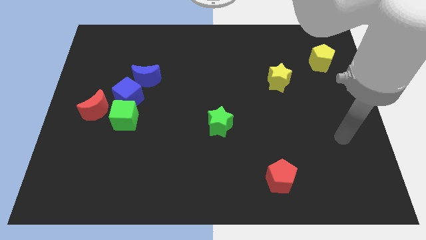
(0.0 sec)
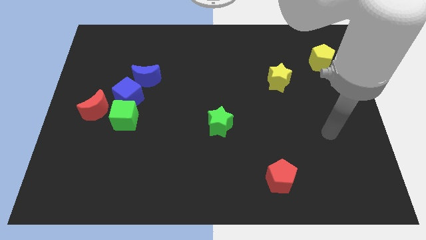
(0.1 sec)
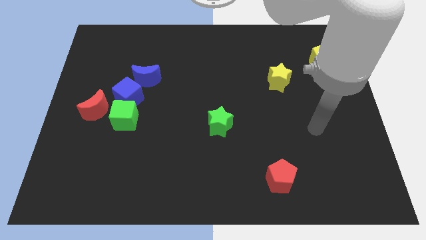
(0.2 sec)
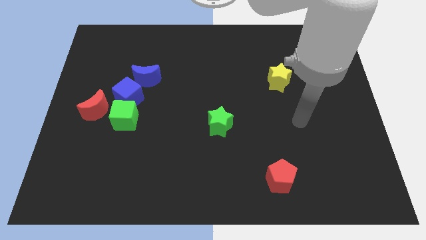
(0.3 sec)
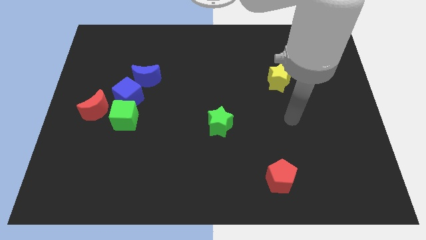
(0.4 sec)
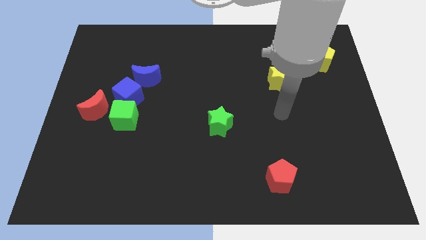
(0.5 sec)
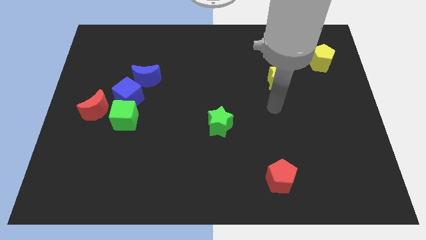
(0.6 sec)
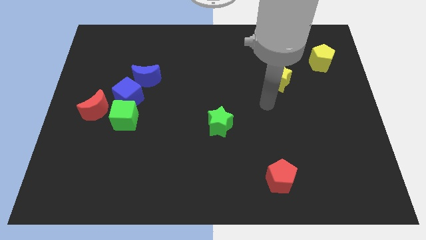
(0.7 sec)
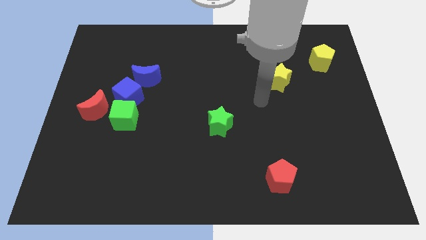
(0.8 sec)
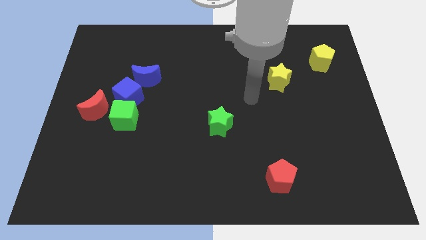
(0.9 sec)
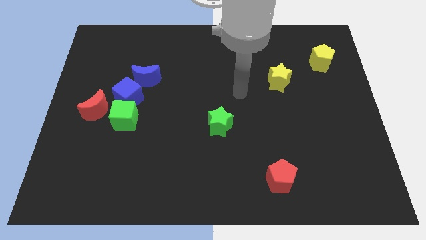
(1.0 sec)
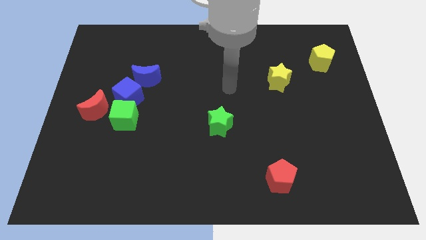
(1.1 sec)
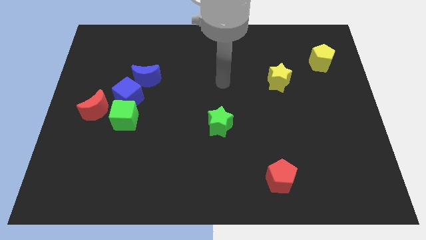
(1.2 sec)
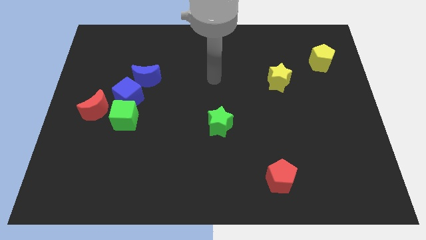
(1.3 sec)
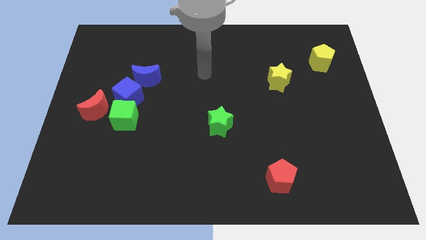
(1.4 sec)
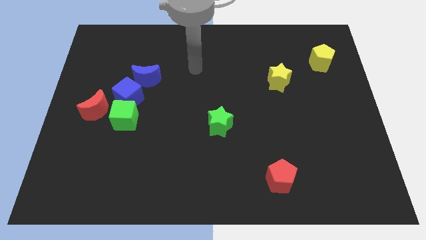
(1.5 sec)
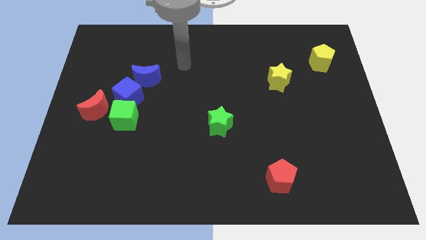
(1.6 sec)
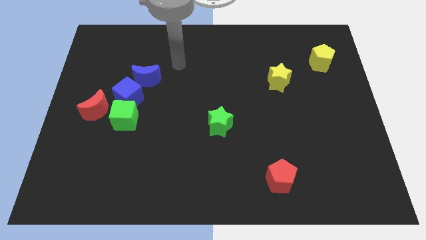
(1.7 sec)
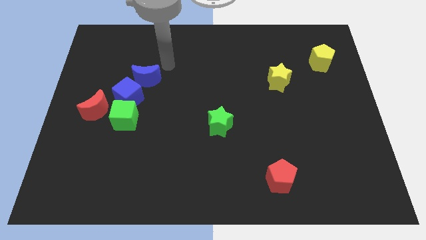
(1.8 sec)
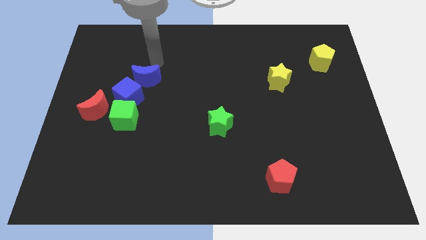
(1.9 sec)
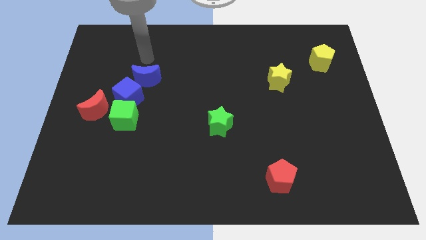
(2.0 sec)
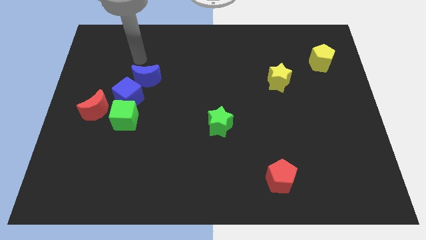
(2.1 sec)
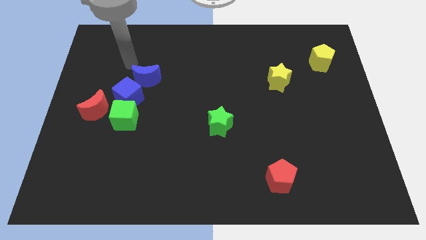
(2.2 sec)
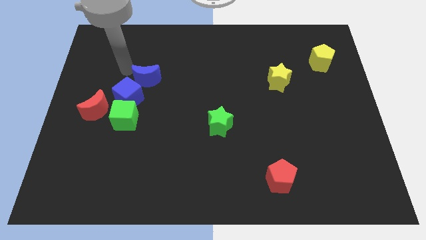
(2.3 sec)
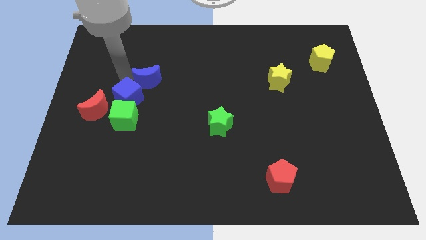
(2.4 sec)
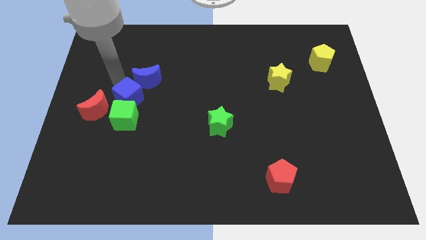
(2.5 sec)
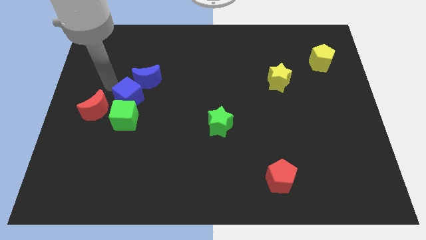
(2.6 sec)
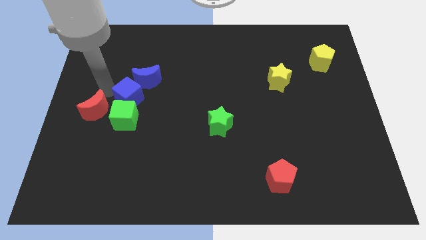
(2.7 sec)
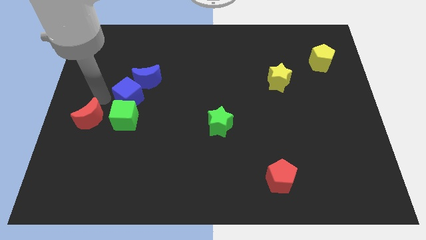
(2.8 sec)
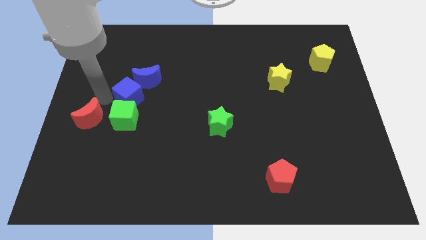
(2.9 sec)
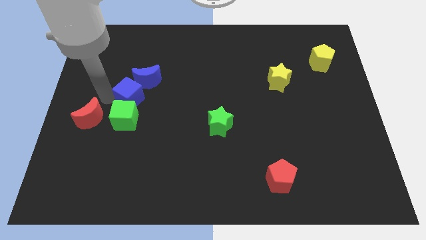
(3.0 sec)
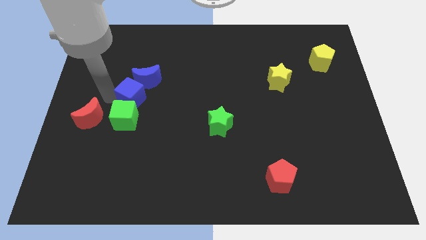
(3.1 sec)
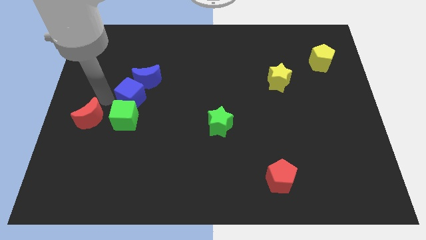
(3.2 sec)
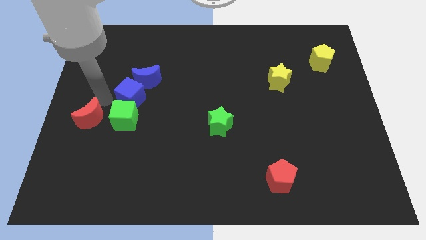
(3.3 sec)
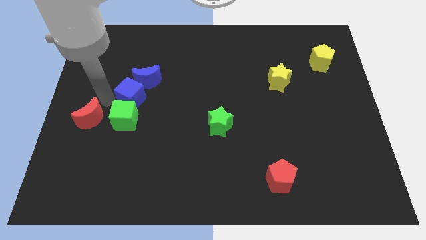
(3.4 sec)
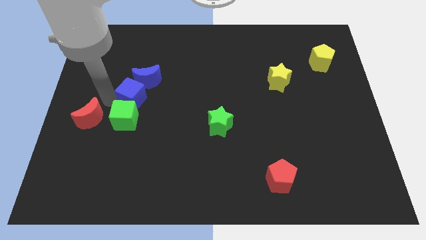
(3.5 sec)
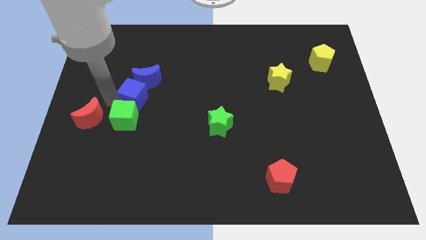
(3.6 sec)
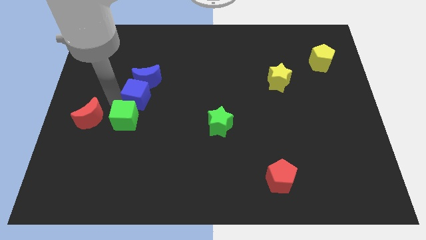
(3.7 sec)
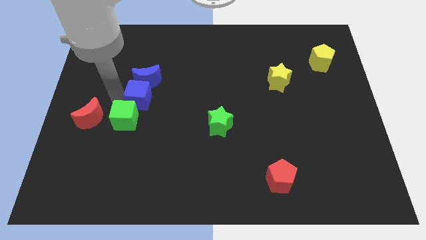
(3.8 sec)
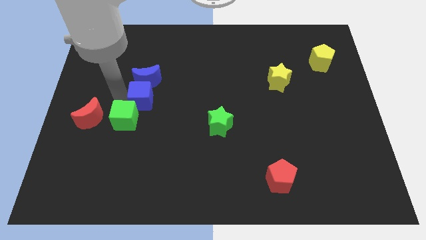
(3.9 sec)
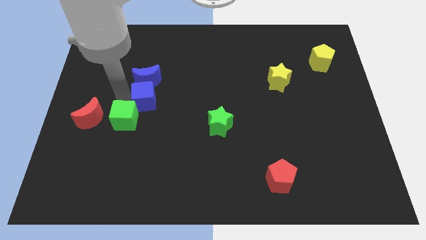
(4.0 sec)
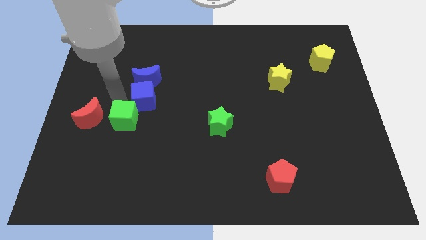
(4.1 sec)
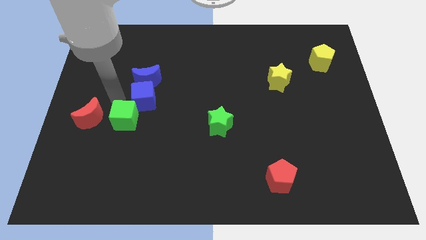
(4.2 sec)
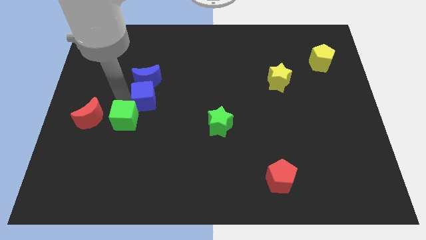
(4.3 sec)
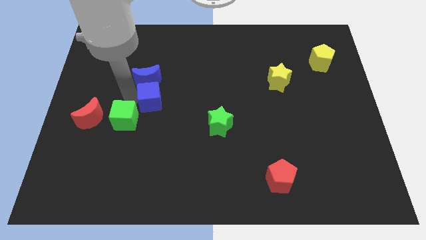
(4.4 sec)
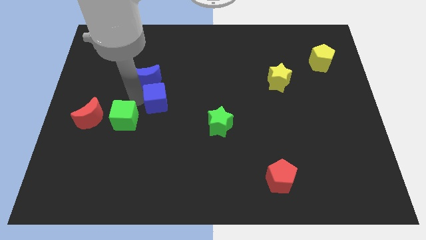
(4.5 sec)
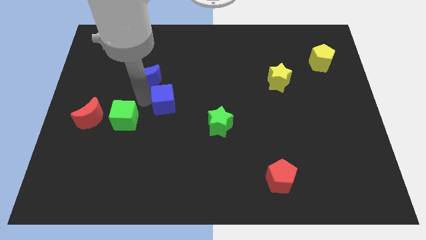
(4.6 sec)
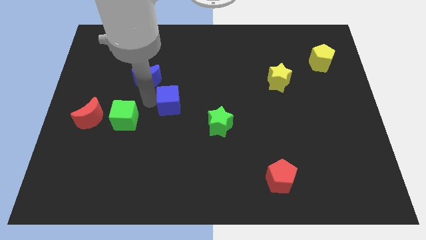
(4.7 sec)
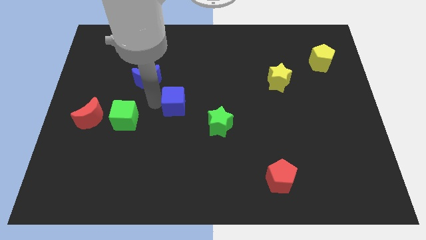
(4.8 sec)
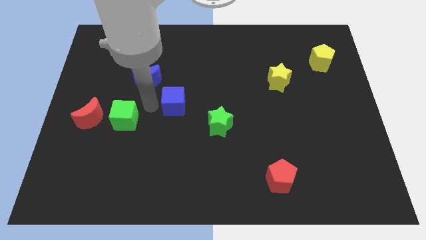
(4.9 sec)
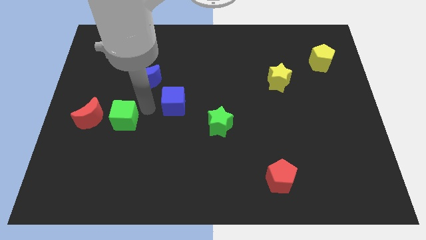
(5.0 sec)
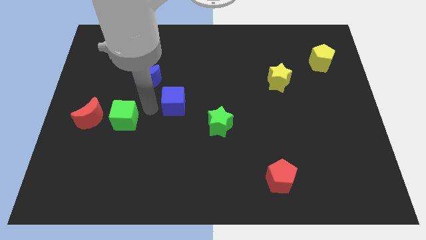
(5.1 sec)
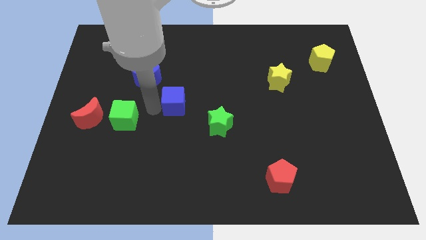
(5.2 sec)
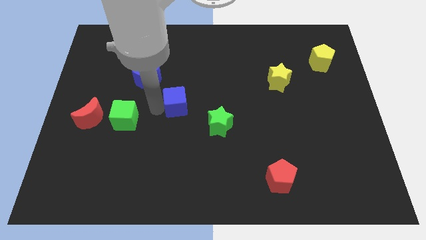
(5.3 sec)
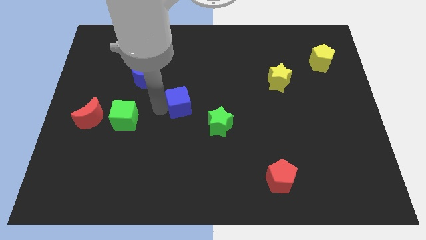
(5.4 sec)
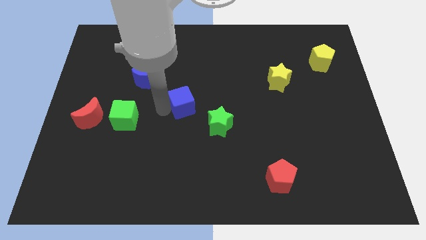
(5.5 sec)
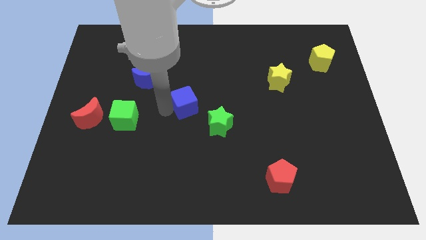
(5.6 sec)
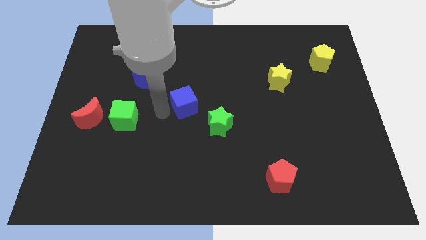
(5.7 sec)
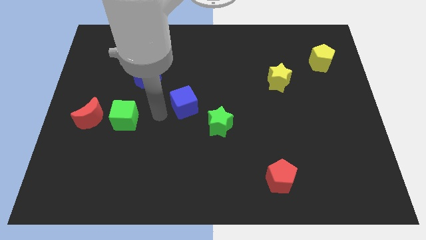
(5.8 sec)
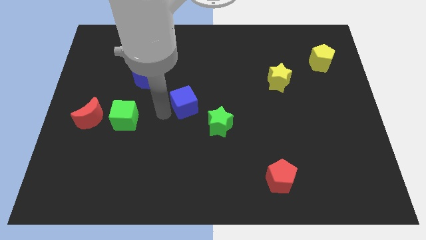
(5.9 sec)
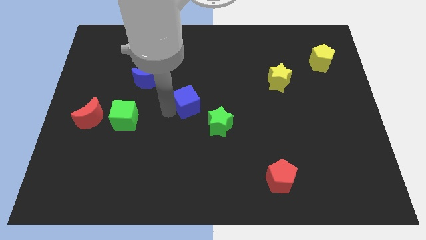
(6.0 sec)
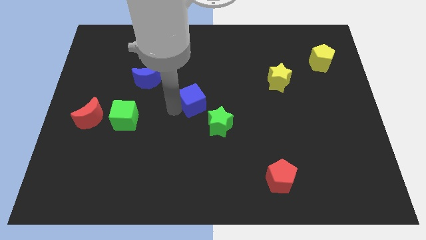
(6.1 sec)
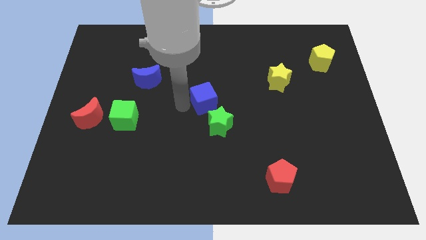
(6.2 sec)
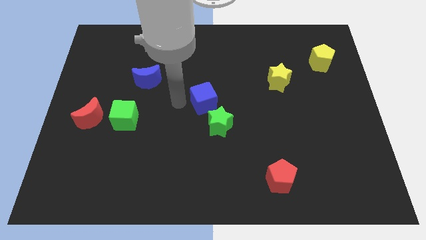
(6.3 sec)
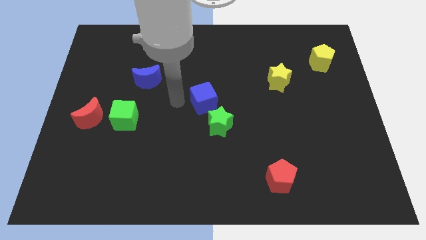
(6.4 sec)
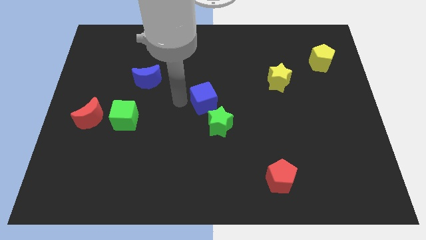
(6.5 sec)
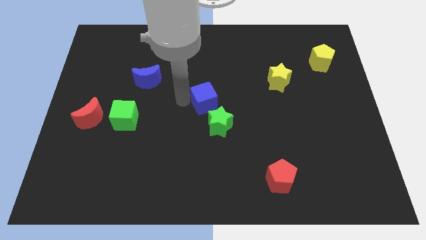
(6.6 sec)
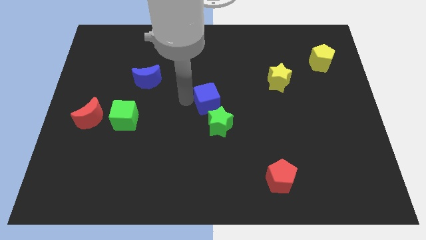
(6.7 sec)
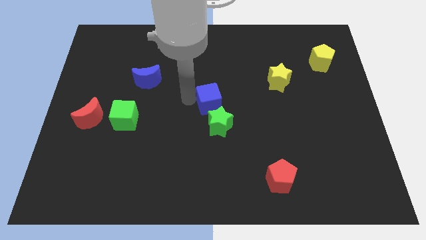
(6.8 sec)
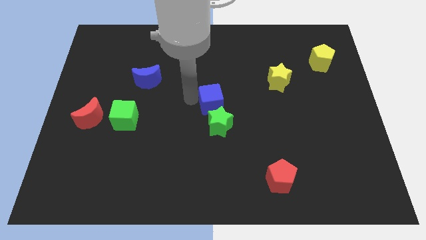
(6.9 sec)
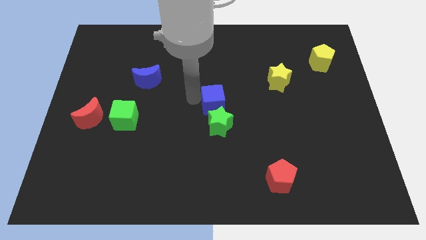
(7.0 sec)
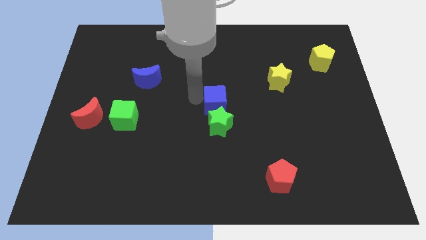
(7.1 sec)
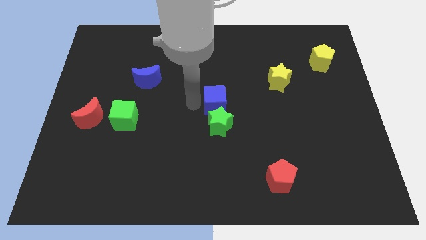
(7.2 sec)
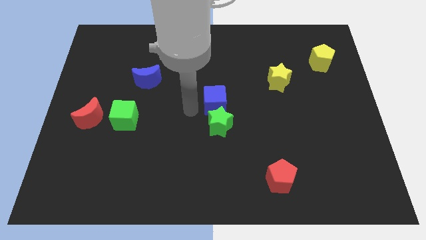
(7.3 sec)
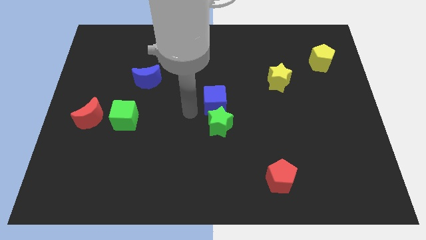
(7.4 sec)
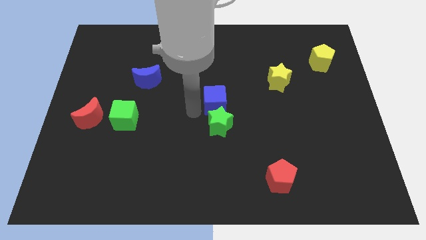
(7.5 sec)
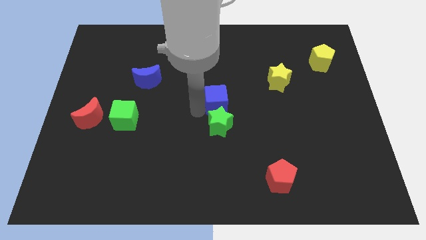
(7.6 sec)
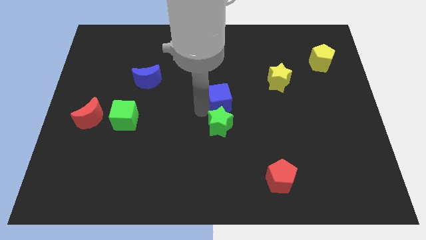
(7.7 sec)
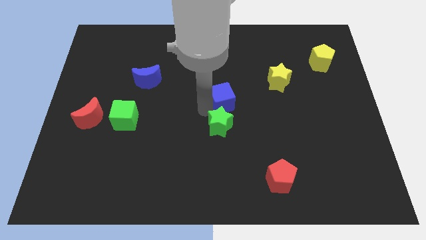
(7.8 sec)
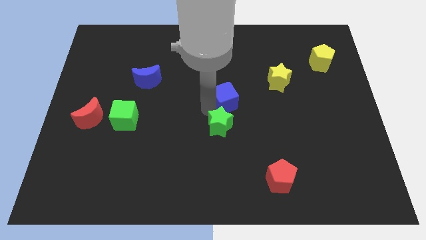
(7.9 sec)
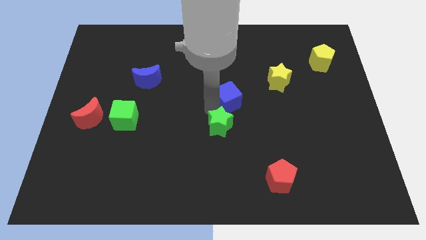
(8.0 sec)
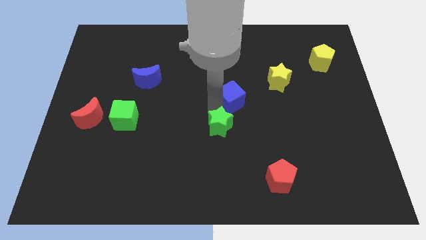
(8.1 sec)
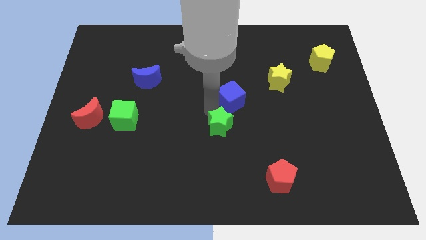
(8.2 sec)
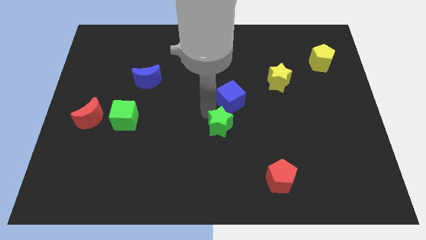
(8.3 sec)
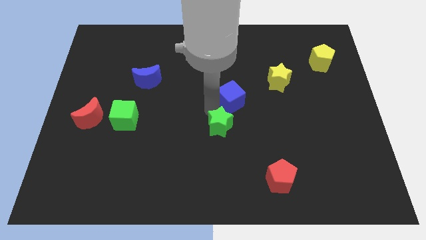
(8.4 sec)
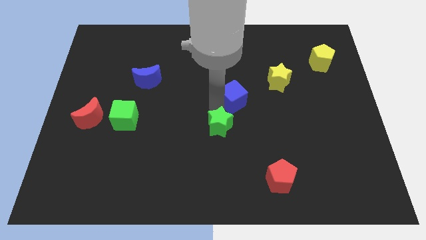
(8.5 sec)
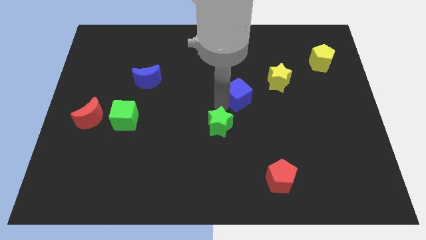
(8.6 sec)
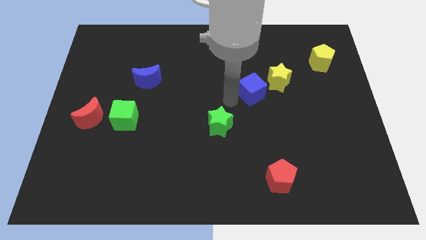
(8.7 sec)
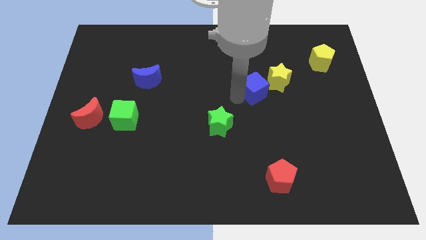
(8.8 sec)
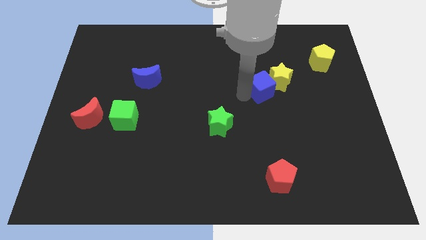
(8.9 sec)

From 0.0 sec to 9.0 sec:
move the blue cube next to the yellow star
